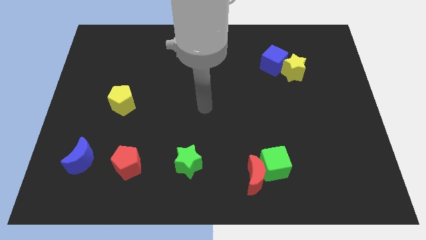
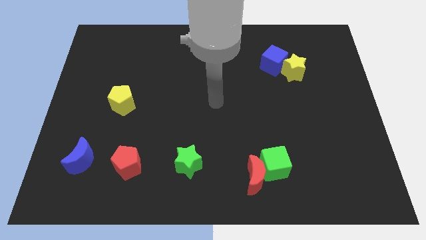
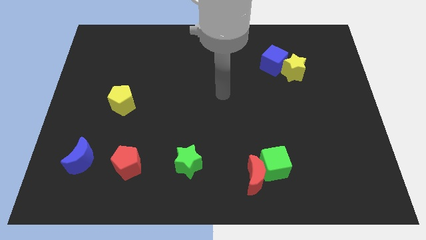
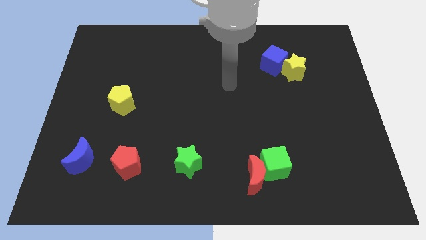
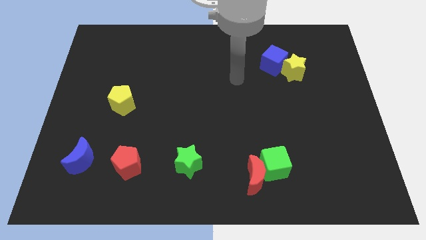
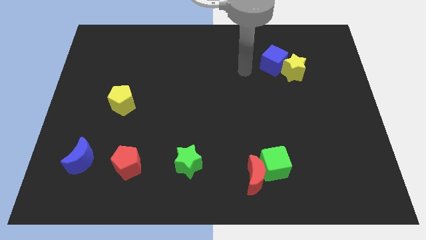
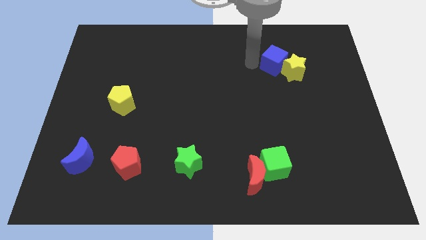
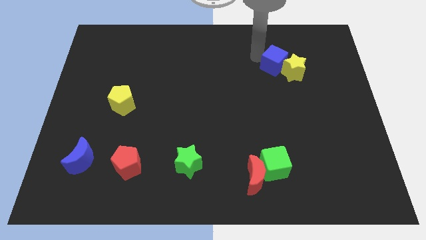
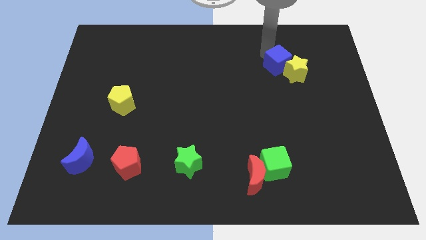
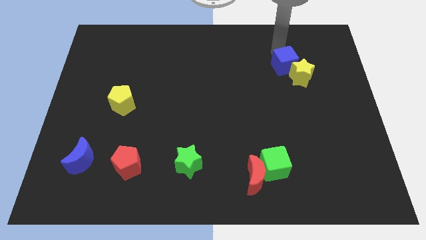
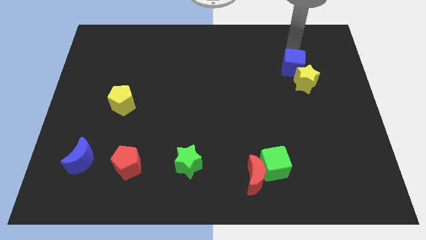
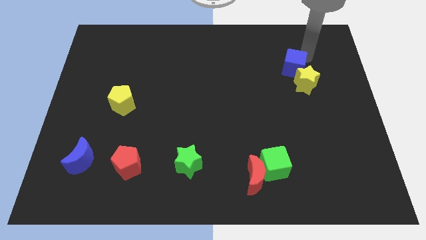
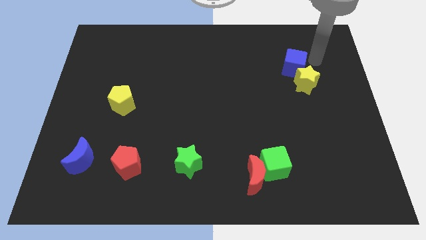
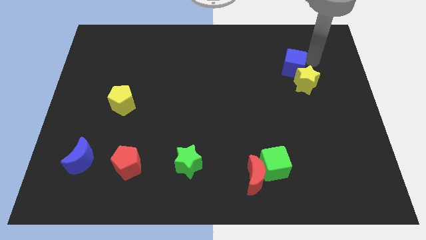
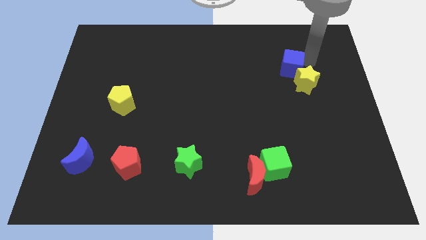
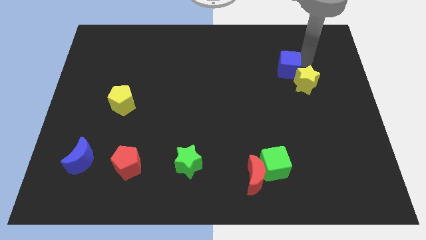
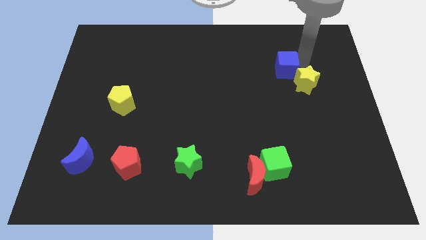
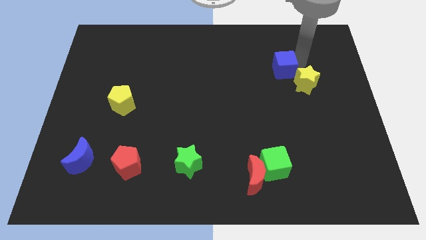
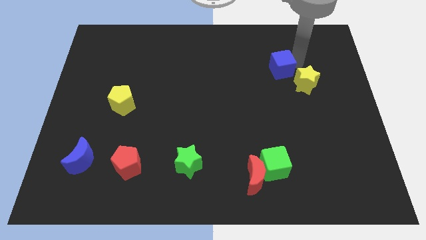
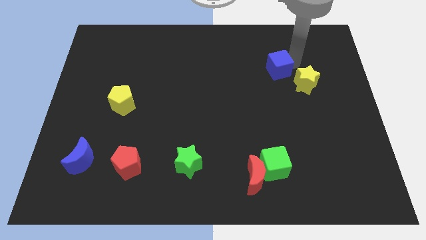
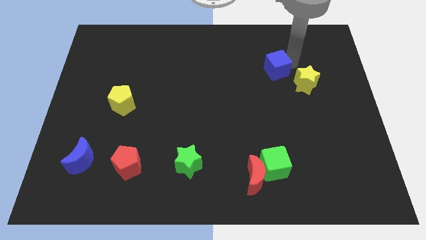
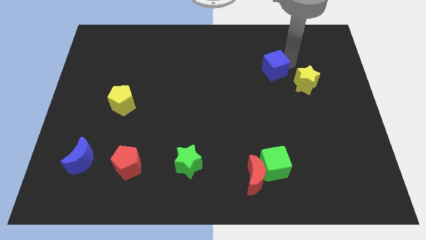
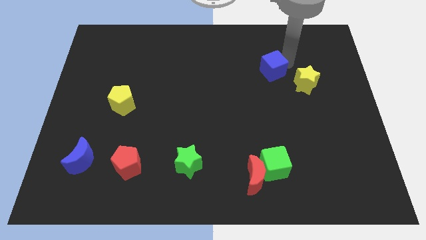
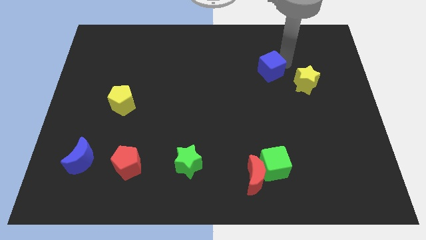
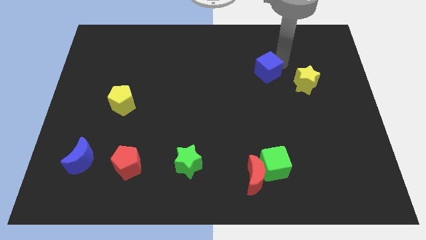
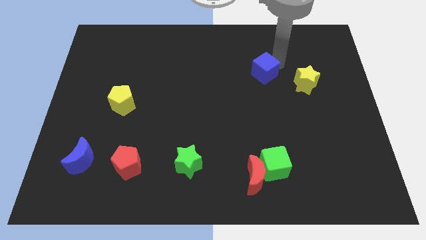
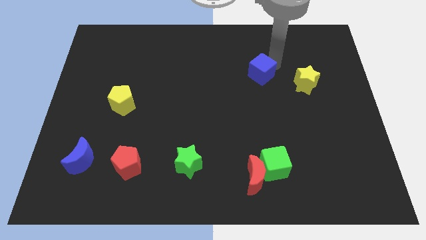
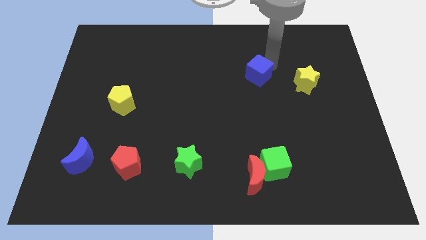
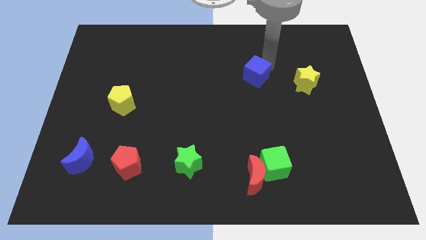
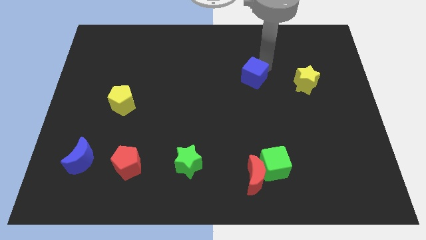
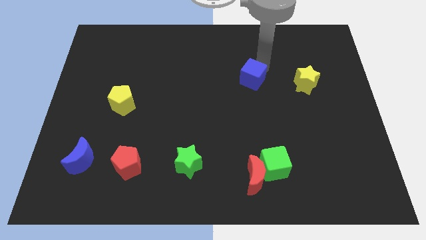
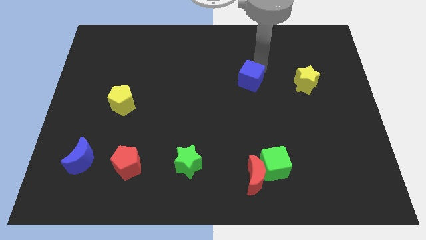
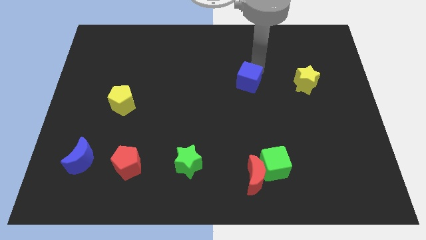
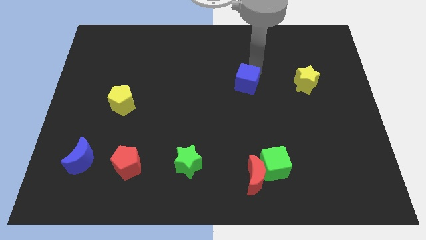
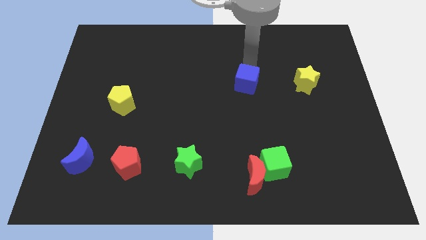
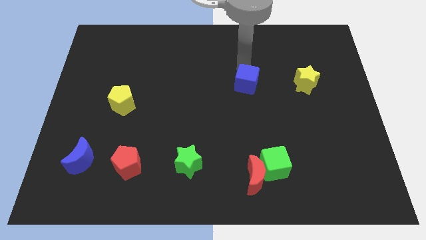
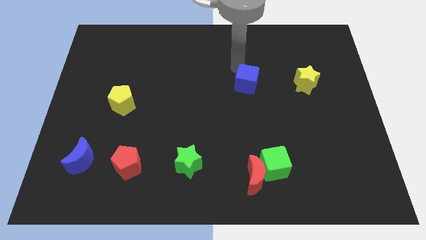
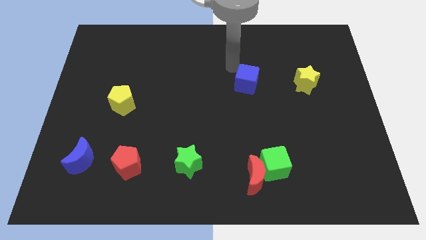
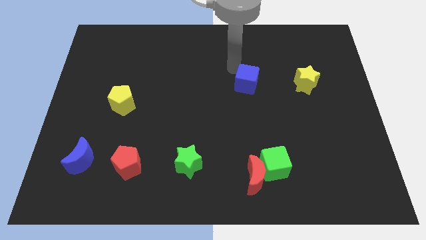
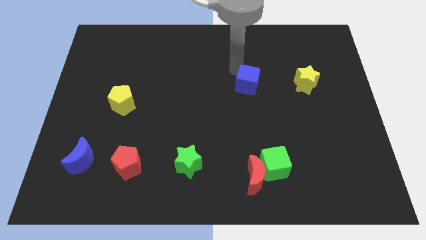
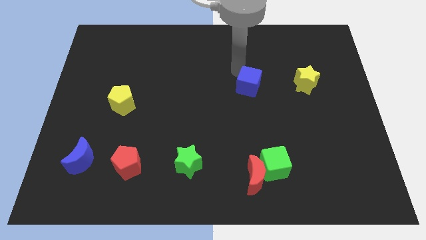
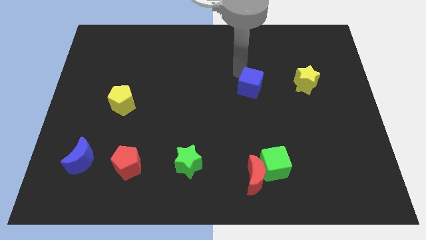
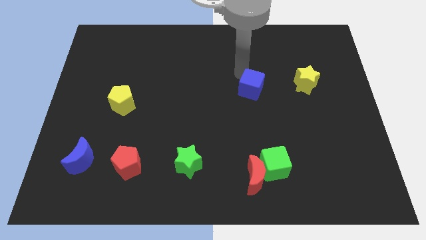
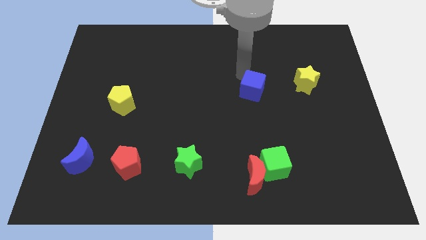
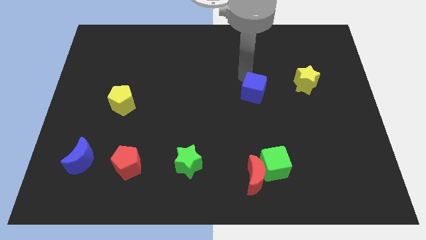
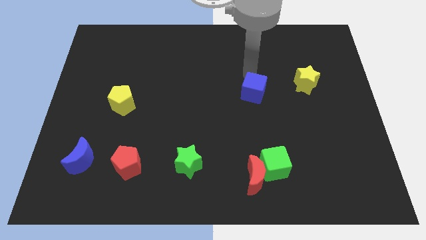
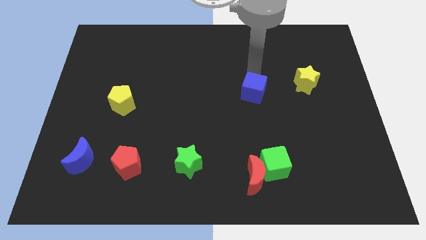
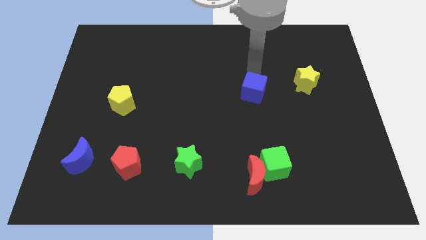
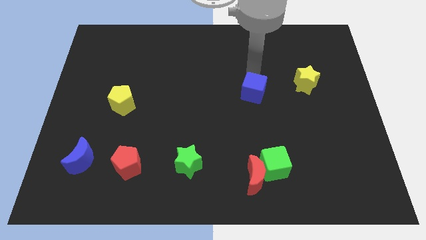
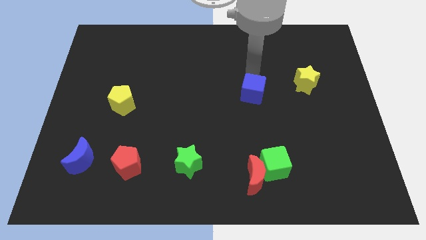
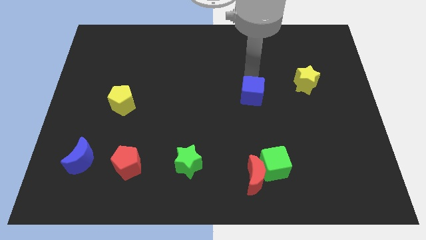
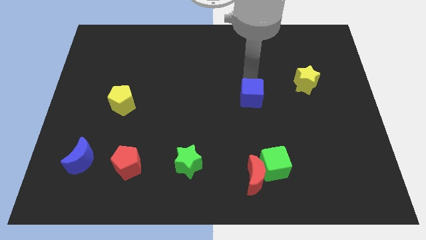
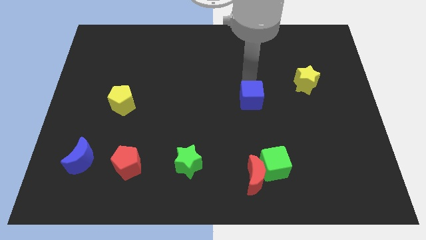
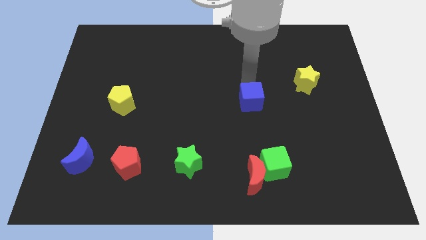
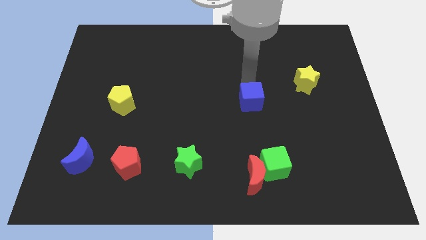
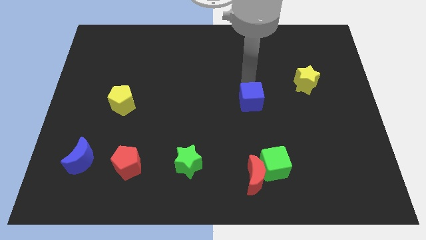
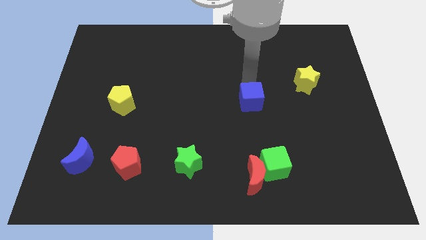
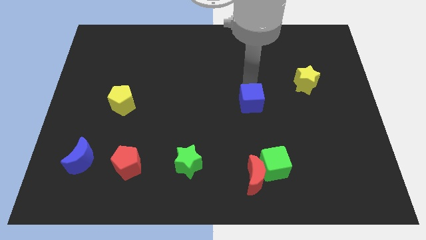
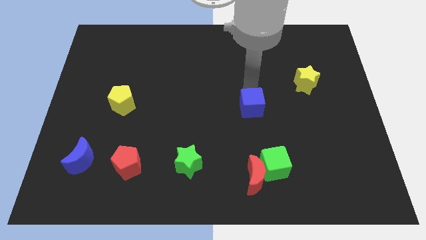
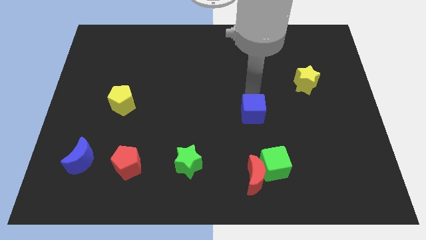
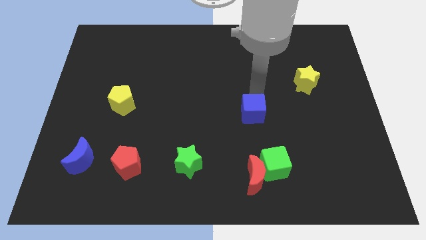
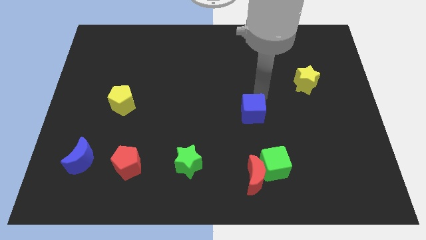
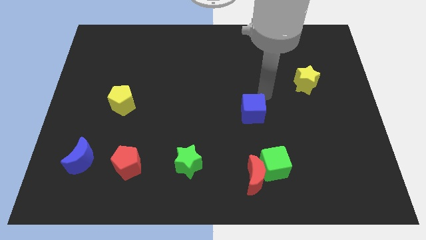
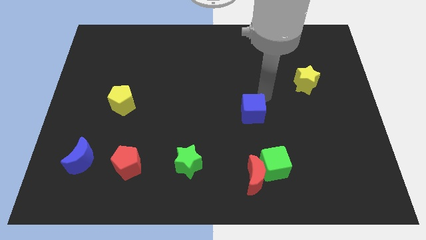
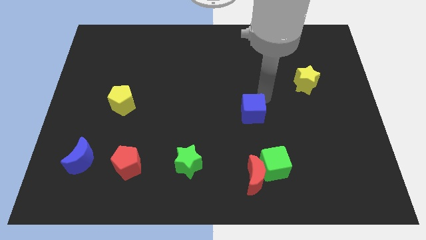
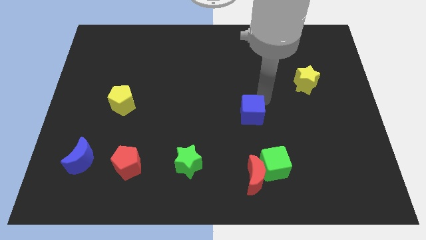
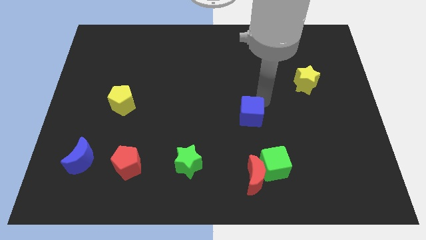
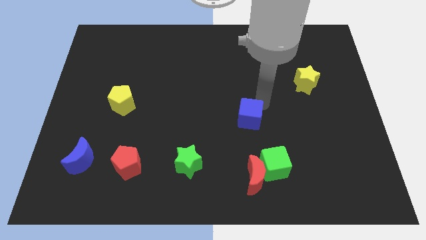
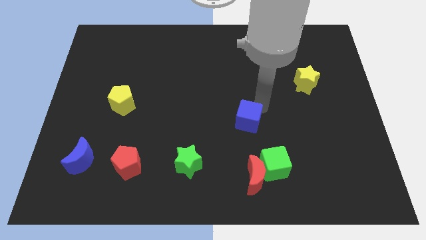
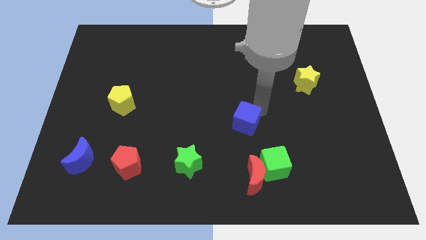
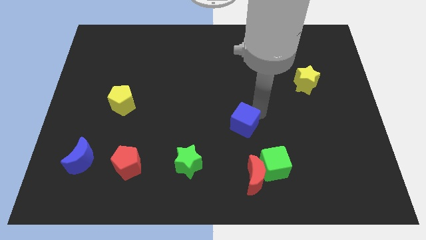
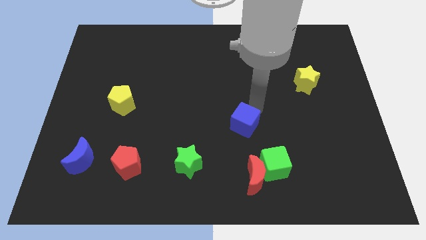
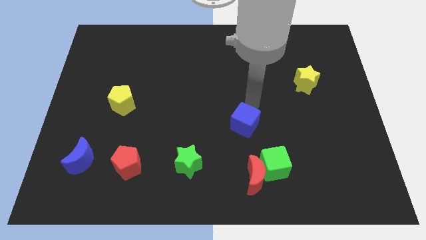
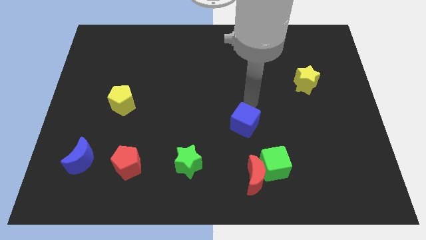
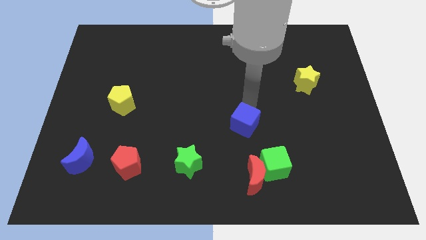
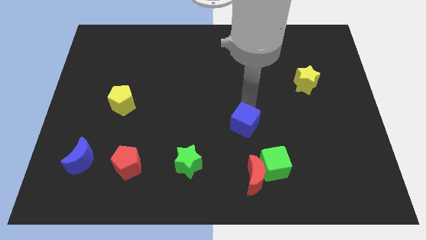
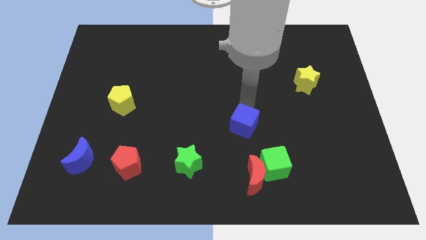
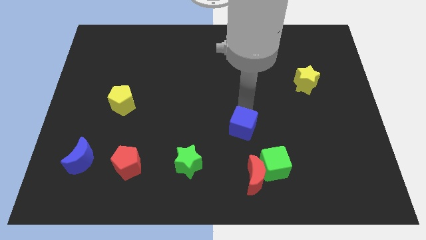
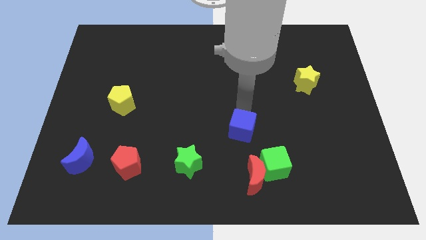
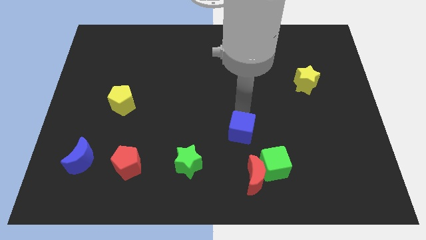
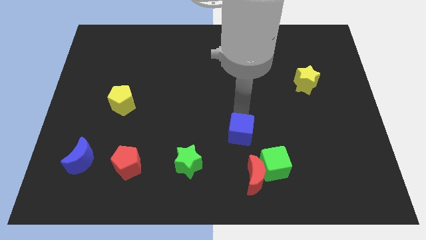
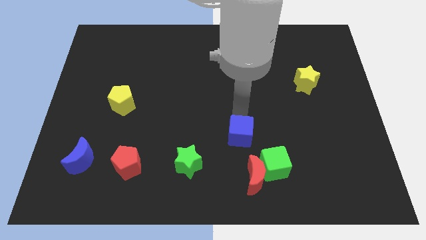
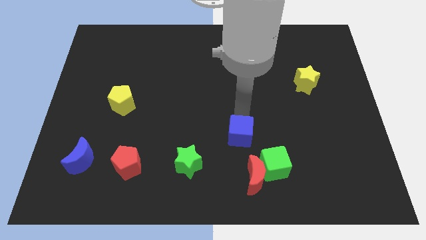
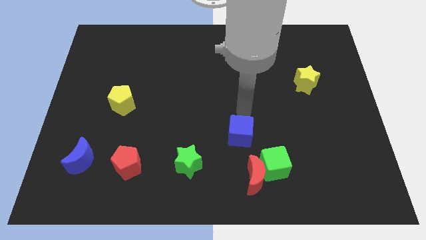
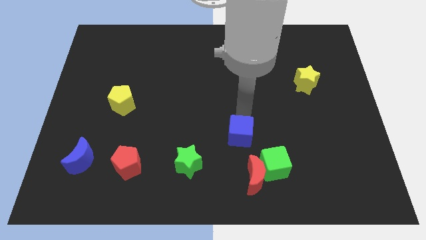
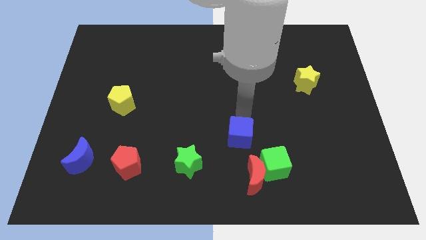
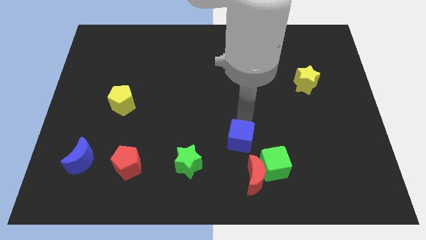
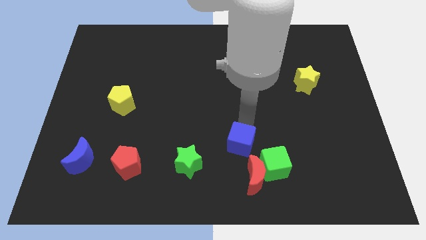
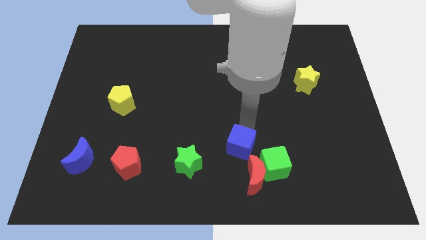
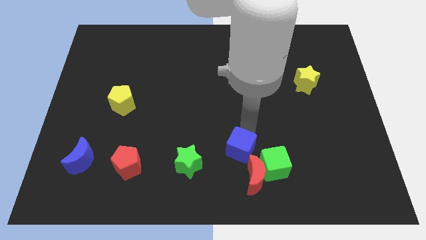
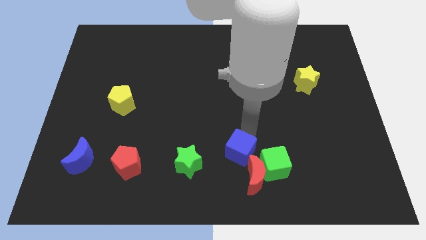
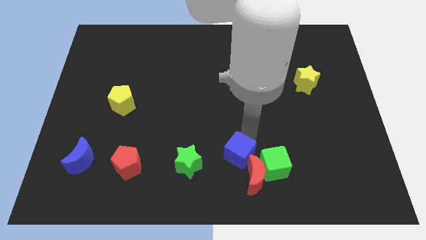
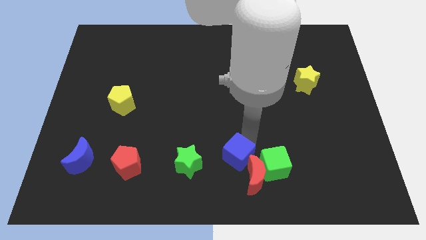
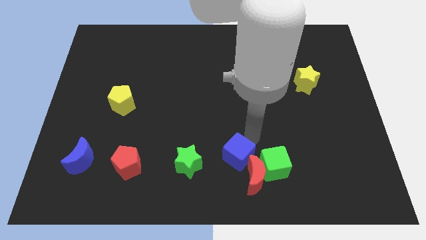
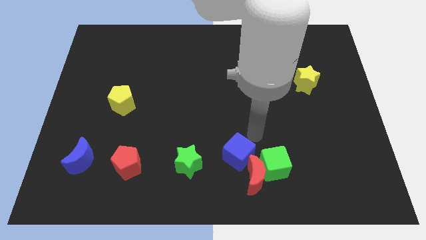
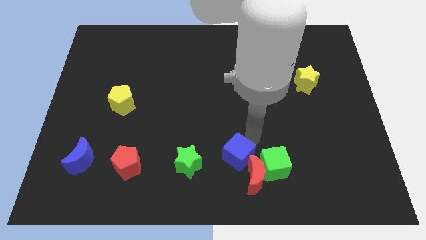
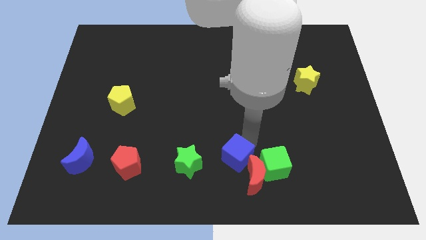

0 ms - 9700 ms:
push the blue cube to the bottom side
